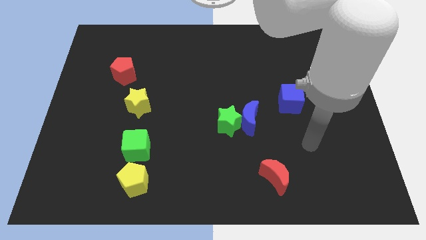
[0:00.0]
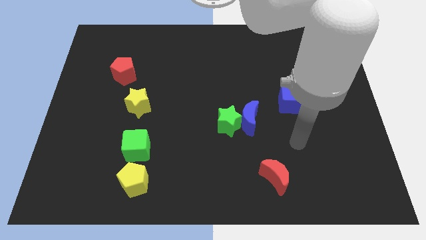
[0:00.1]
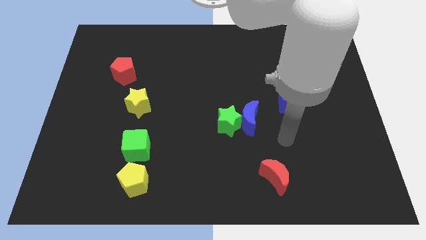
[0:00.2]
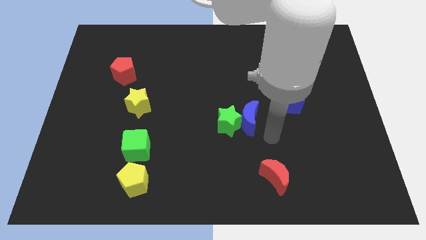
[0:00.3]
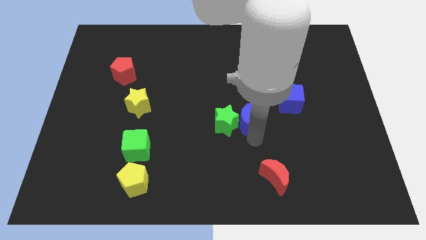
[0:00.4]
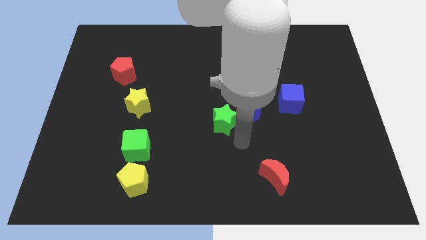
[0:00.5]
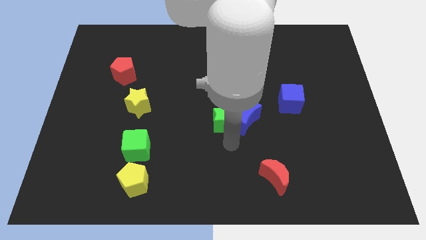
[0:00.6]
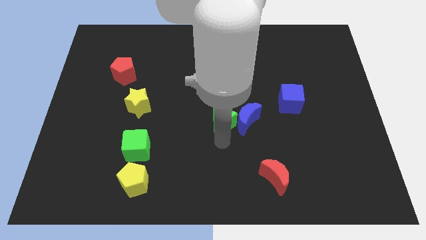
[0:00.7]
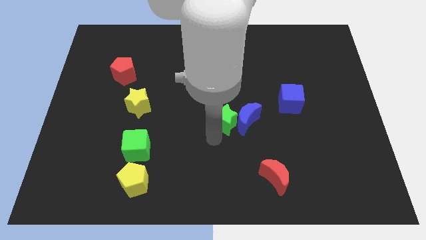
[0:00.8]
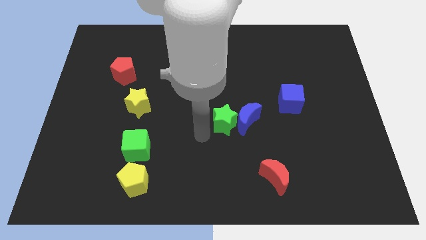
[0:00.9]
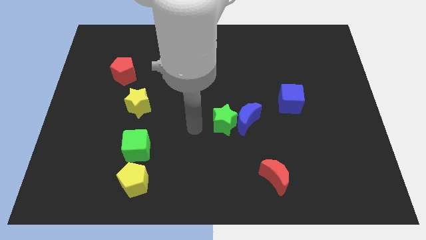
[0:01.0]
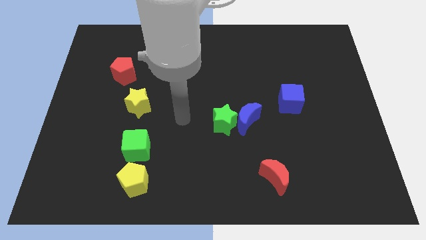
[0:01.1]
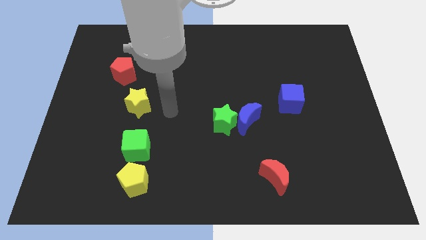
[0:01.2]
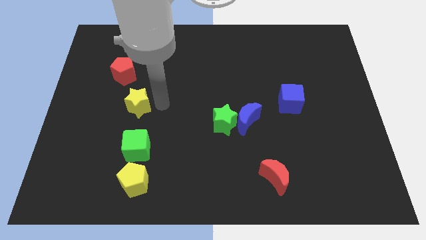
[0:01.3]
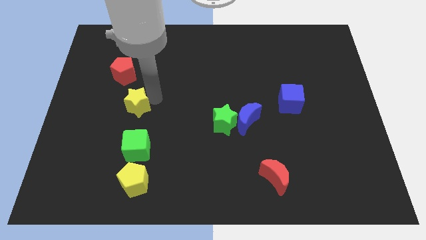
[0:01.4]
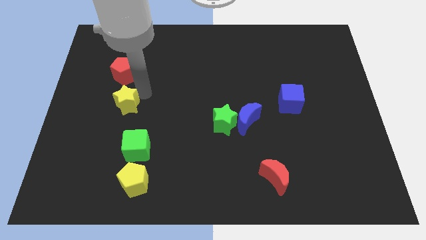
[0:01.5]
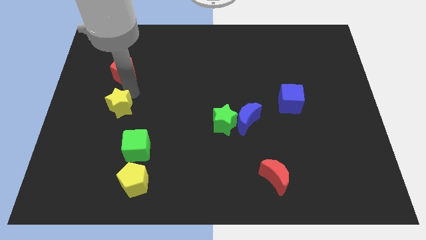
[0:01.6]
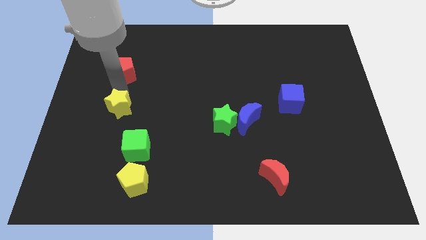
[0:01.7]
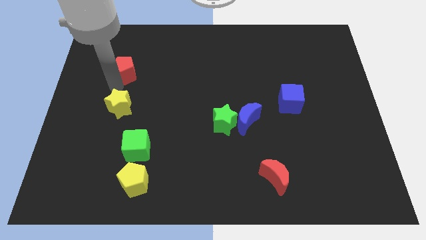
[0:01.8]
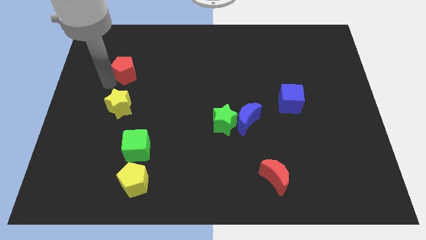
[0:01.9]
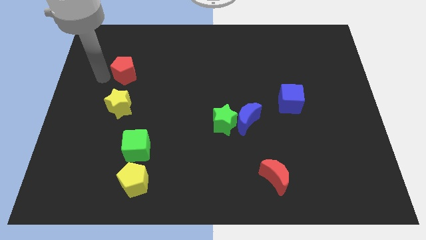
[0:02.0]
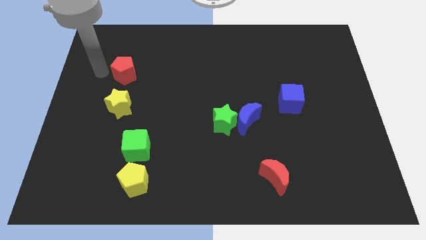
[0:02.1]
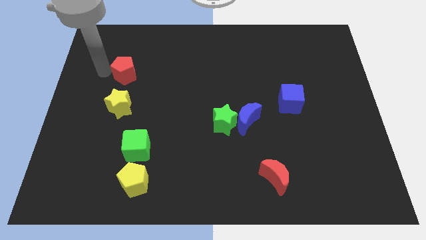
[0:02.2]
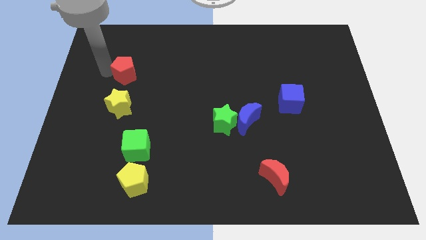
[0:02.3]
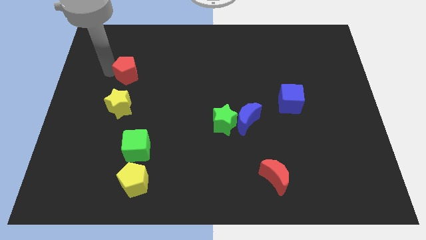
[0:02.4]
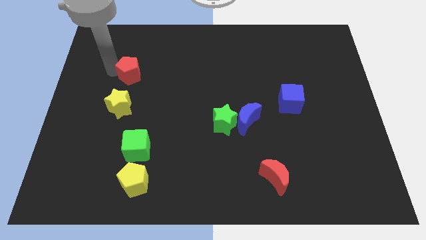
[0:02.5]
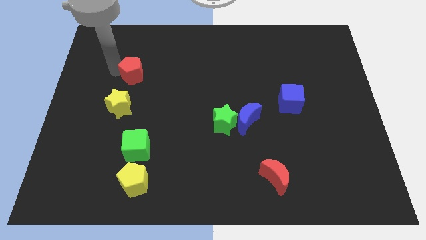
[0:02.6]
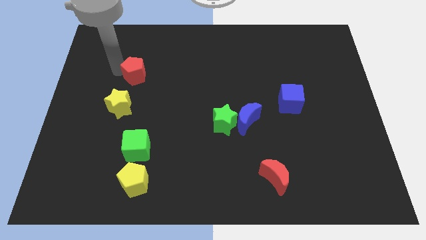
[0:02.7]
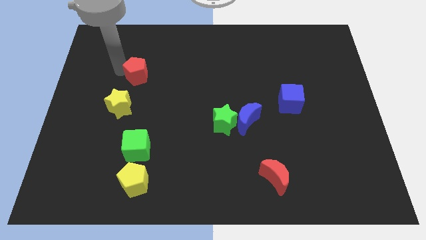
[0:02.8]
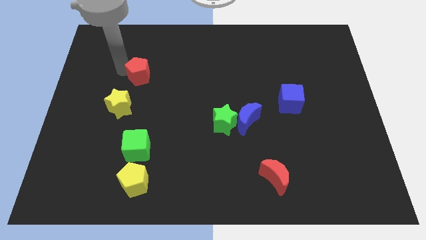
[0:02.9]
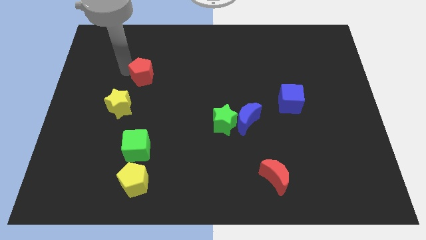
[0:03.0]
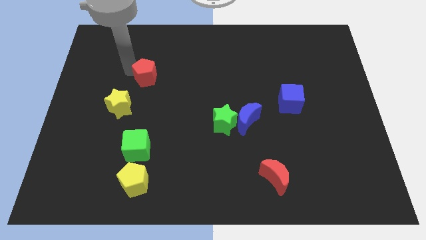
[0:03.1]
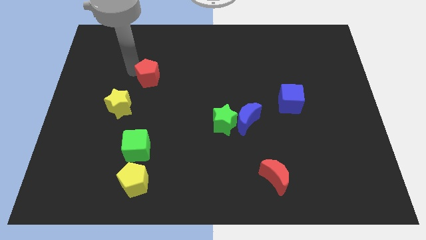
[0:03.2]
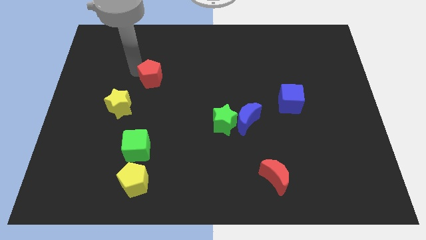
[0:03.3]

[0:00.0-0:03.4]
slightly push the red pentagon to the right

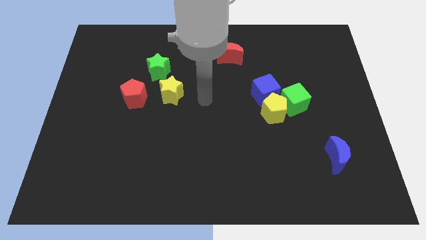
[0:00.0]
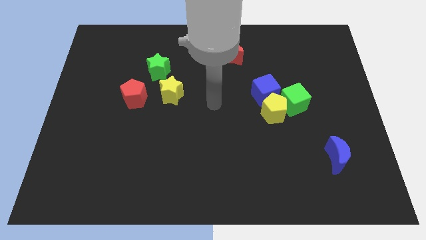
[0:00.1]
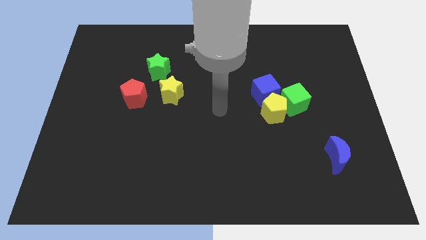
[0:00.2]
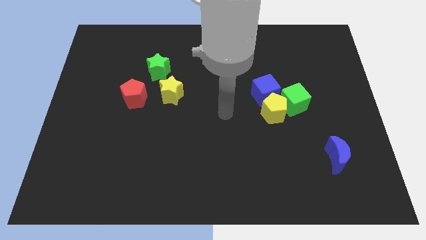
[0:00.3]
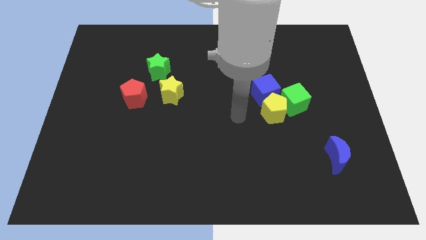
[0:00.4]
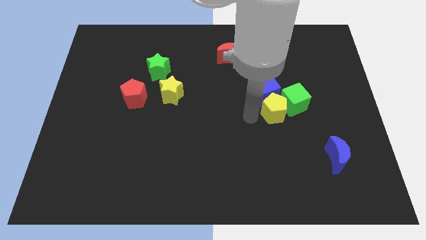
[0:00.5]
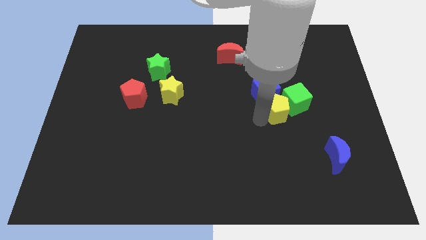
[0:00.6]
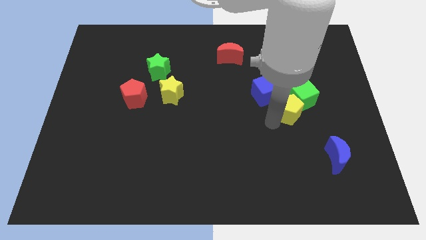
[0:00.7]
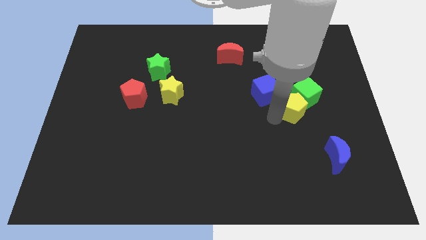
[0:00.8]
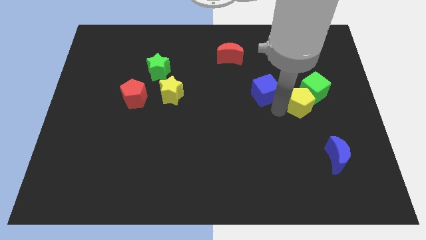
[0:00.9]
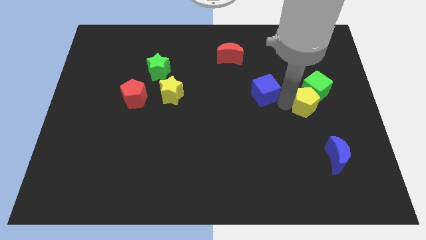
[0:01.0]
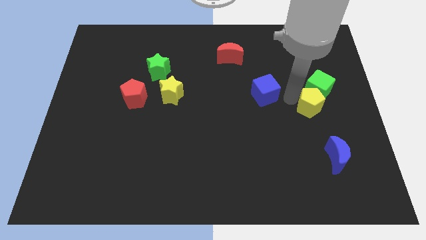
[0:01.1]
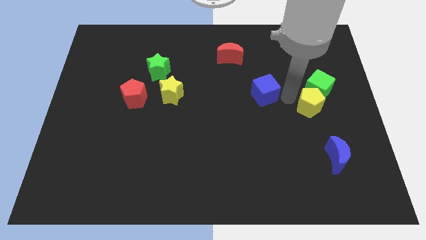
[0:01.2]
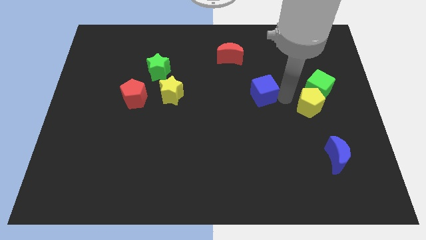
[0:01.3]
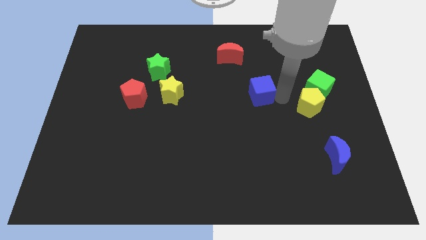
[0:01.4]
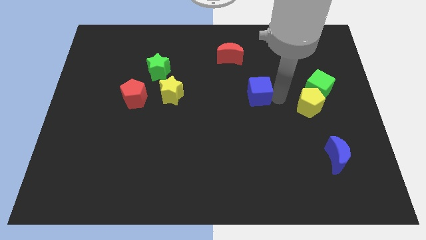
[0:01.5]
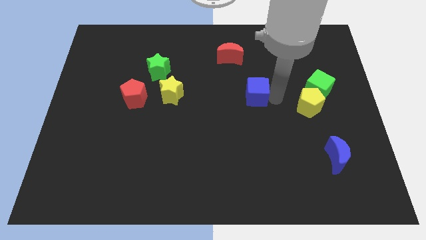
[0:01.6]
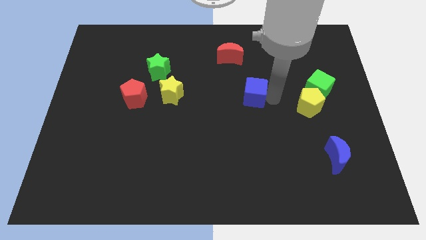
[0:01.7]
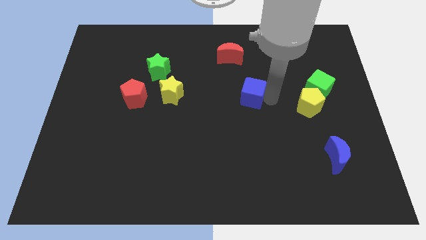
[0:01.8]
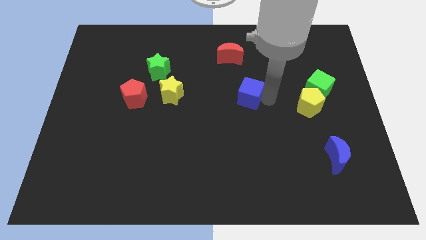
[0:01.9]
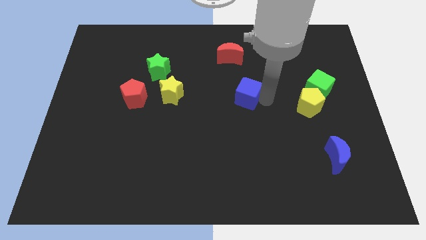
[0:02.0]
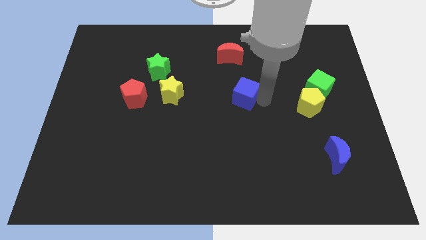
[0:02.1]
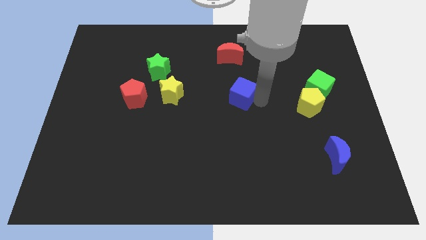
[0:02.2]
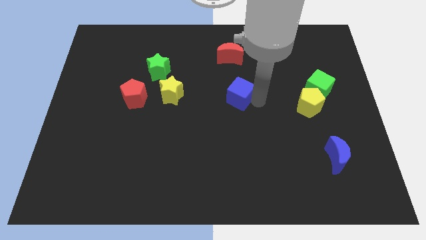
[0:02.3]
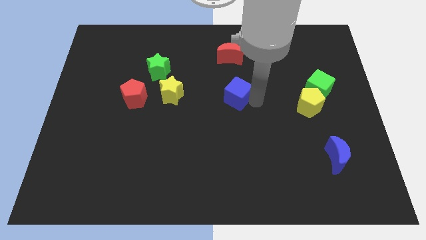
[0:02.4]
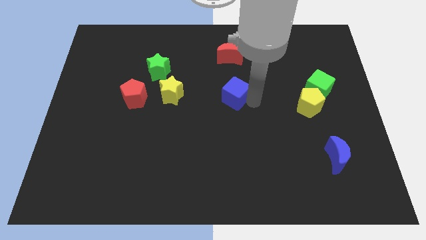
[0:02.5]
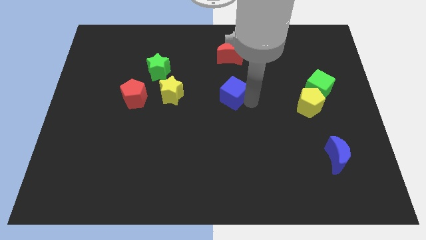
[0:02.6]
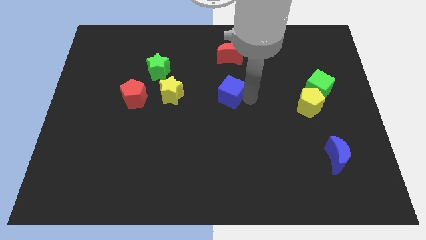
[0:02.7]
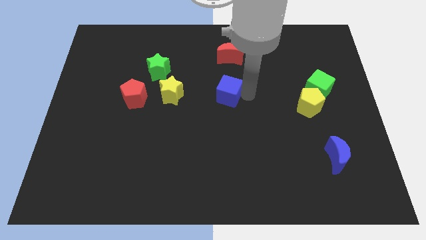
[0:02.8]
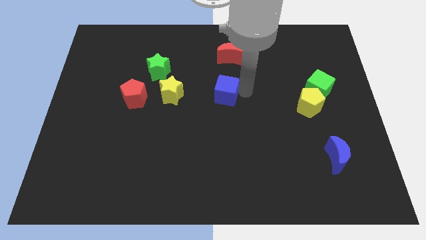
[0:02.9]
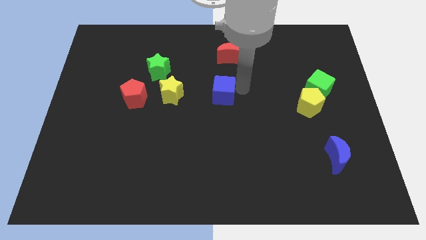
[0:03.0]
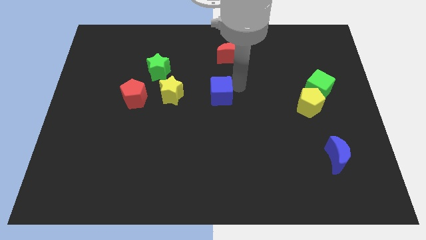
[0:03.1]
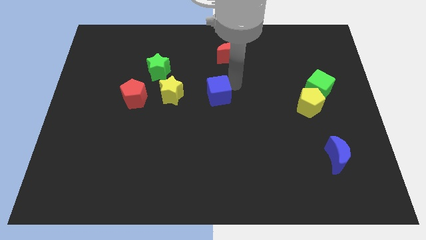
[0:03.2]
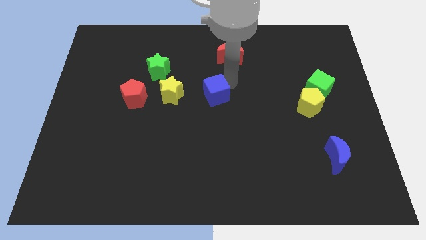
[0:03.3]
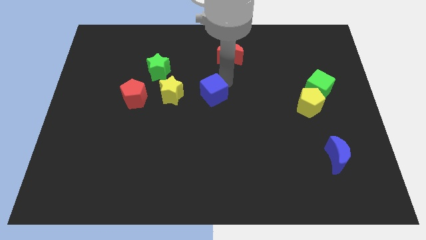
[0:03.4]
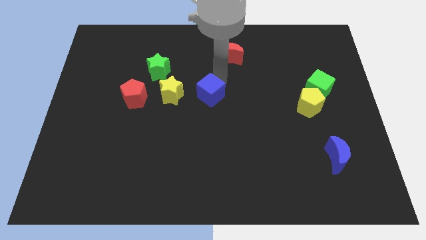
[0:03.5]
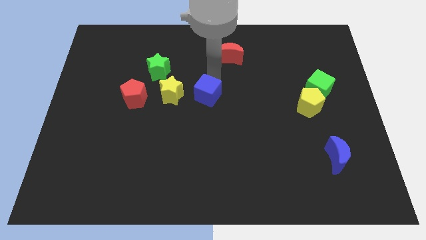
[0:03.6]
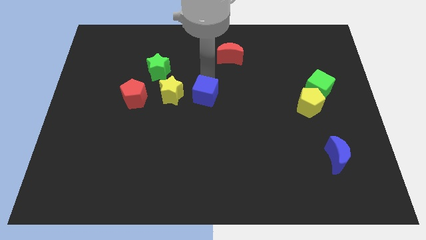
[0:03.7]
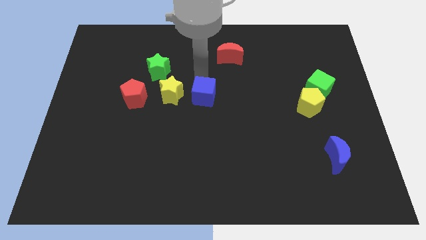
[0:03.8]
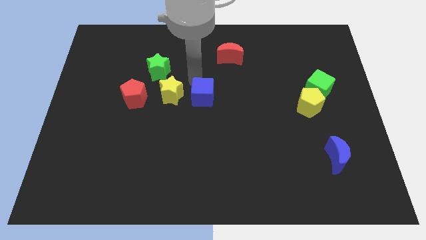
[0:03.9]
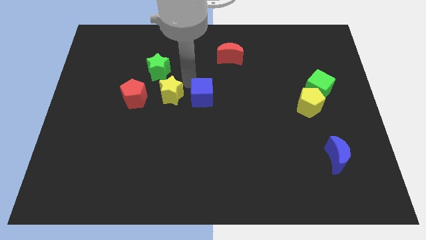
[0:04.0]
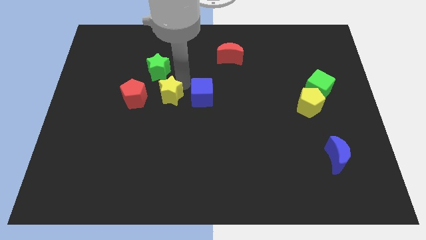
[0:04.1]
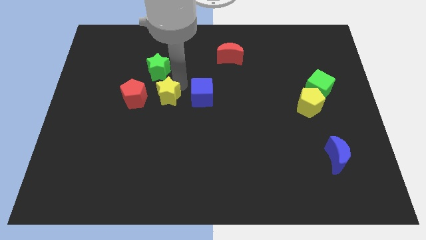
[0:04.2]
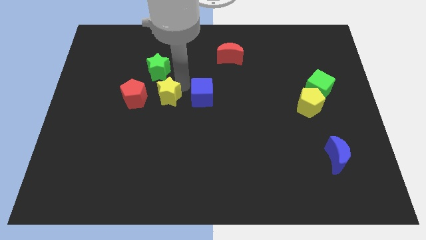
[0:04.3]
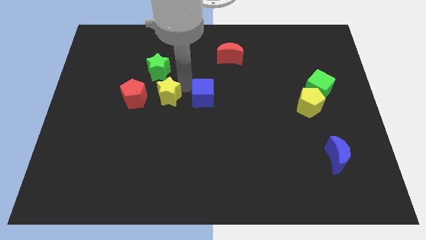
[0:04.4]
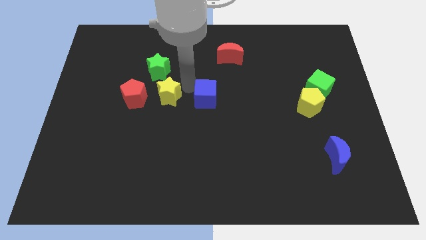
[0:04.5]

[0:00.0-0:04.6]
slide the blue cube diagonally down and left a bit
